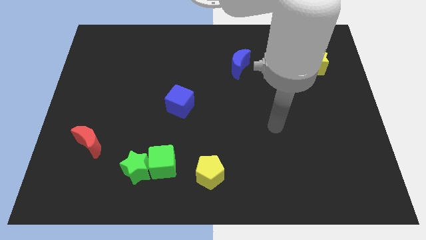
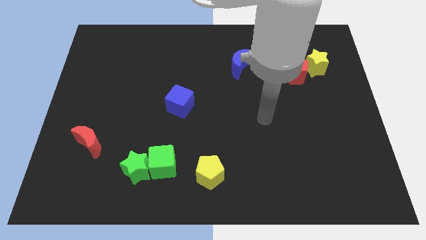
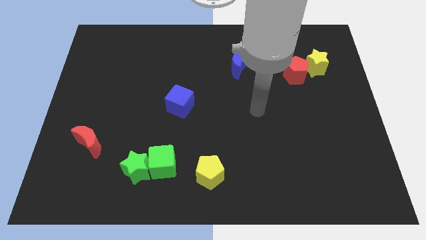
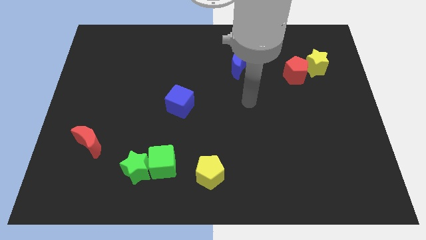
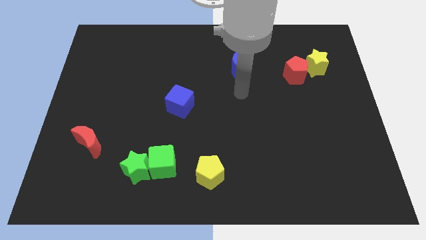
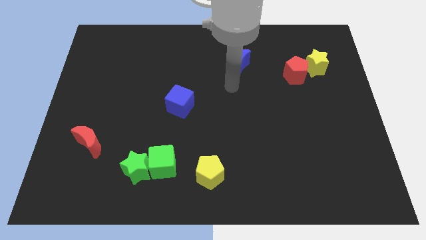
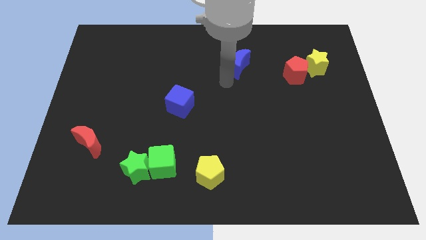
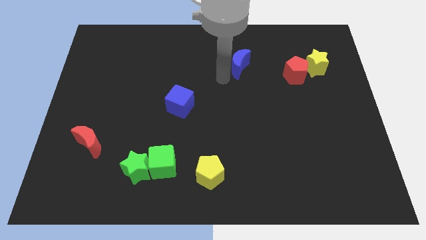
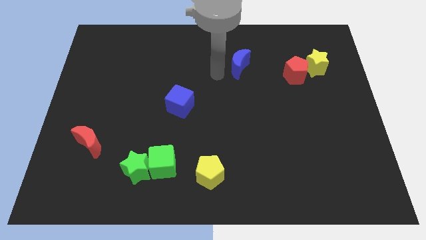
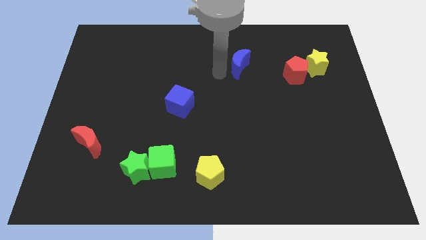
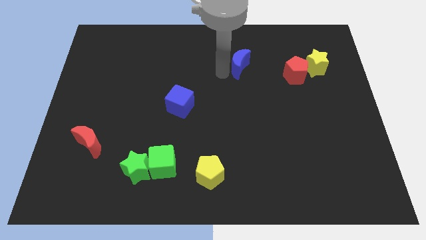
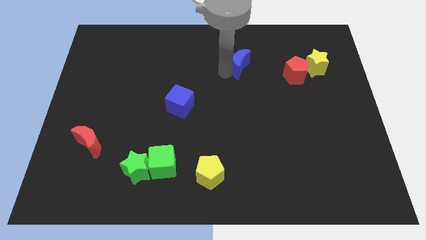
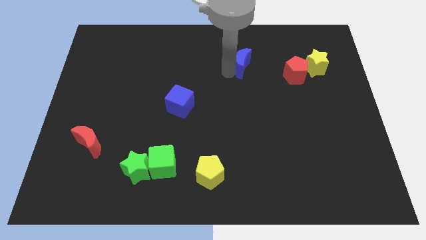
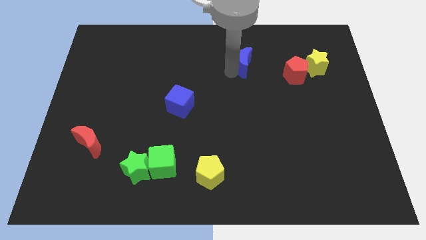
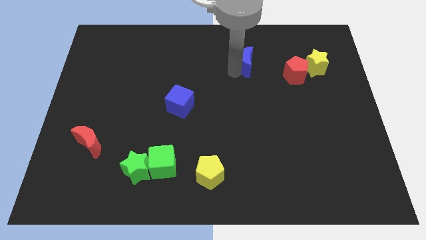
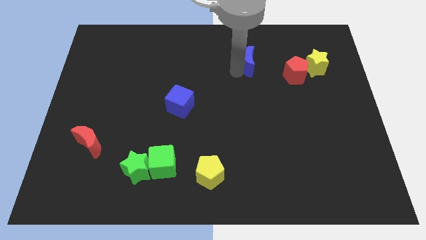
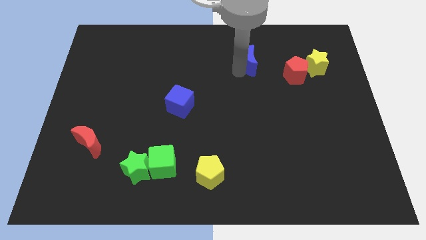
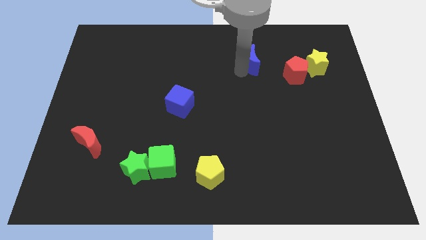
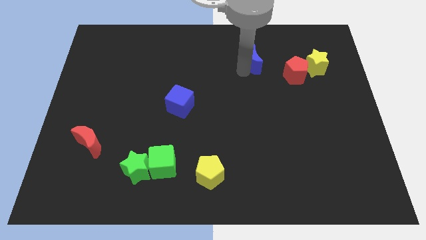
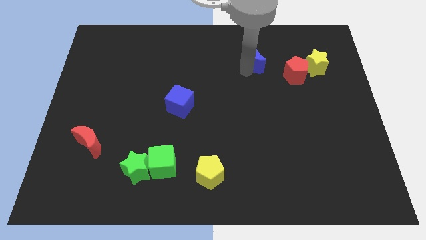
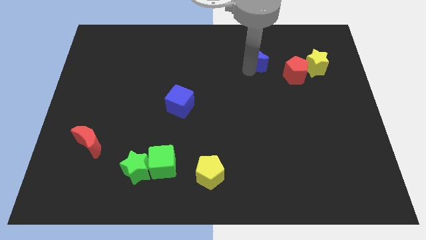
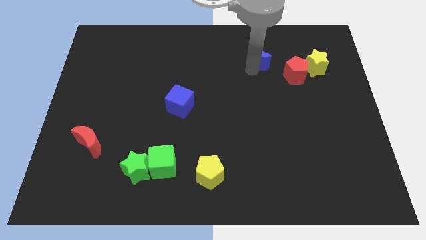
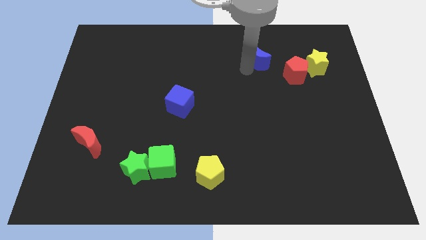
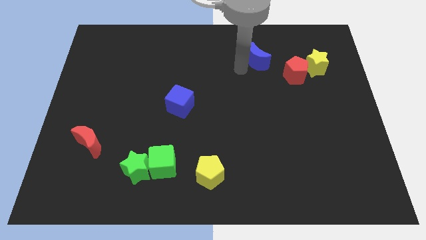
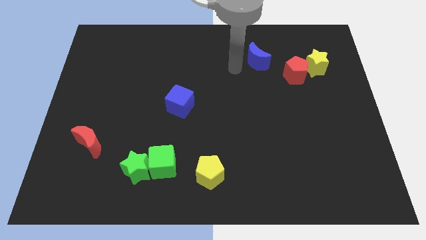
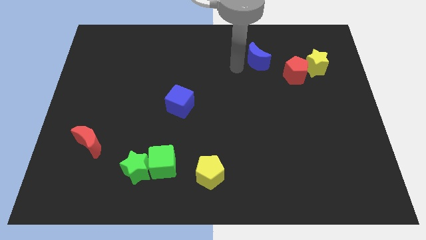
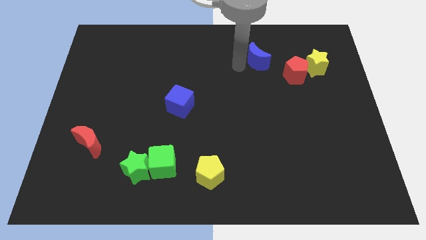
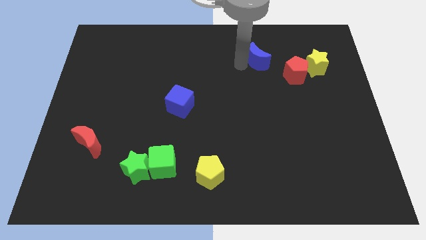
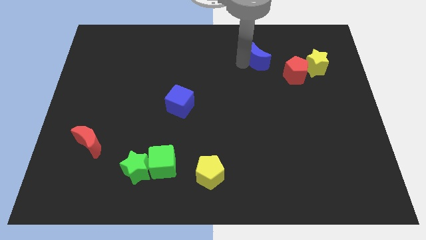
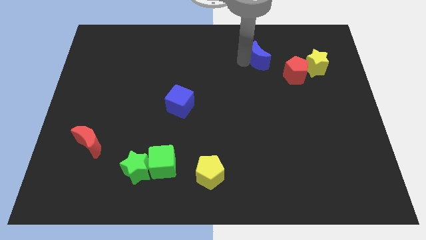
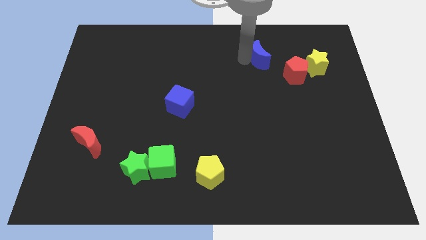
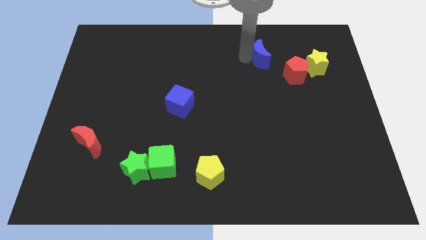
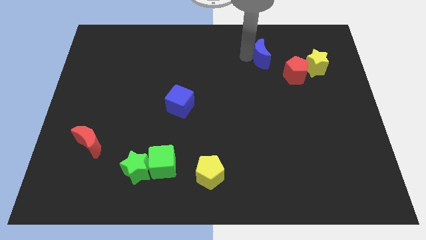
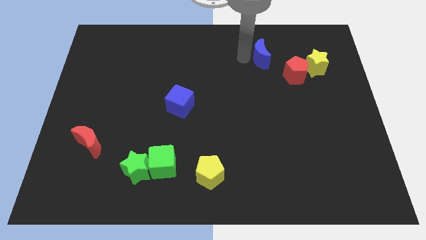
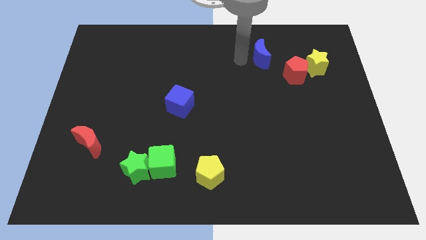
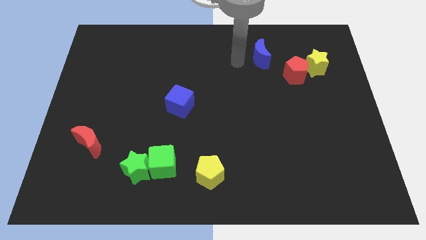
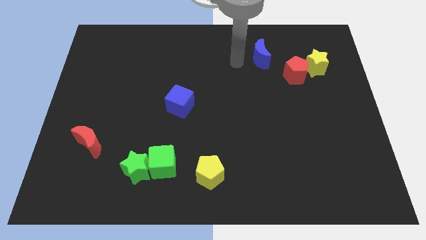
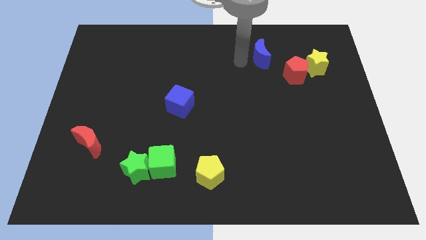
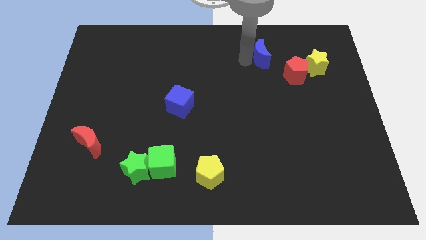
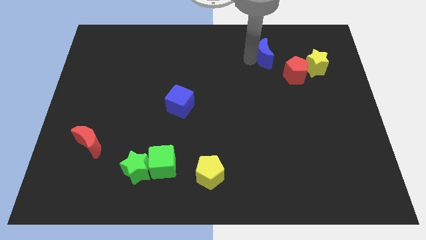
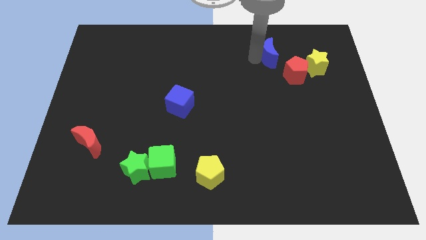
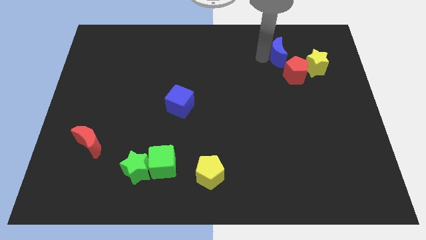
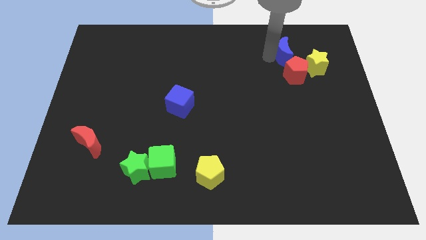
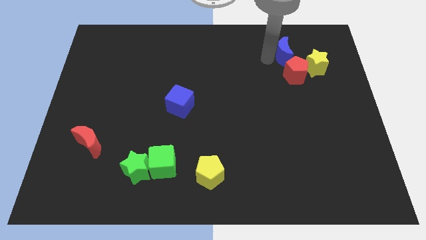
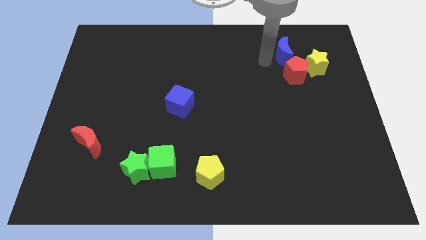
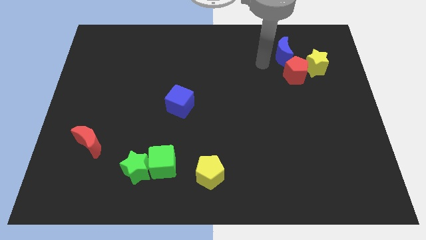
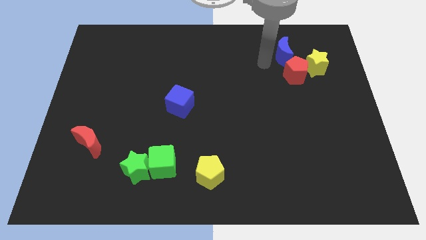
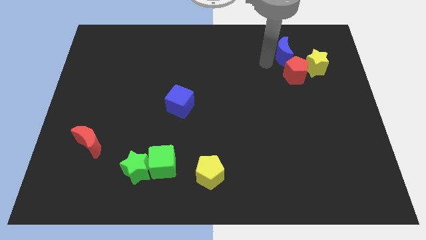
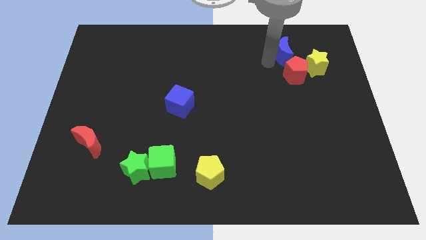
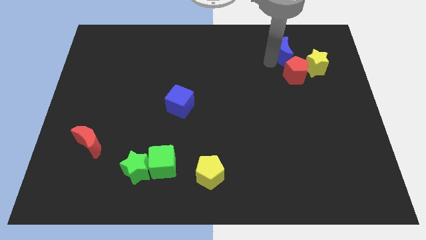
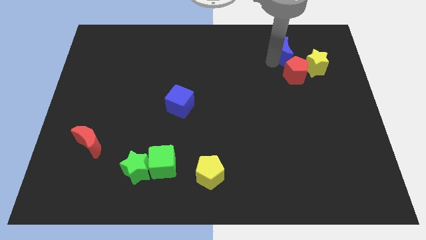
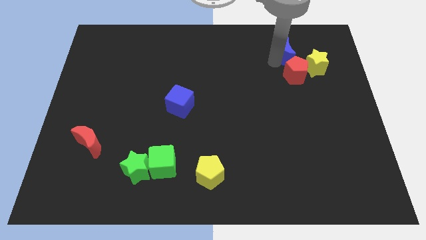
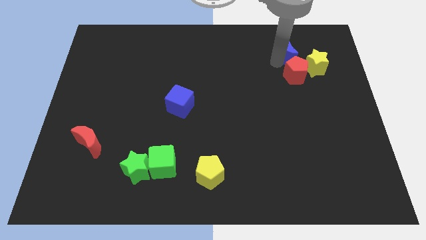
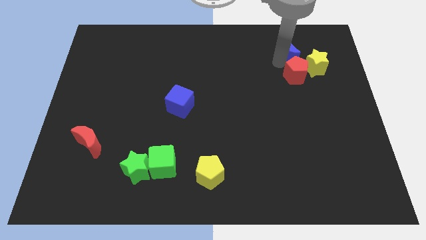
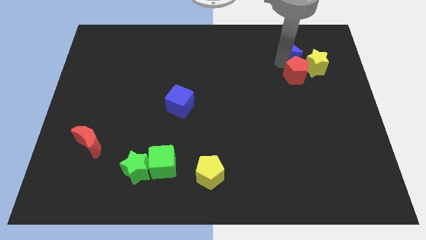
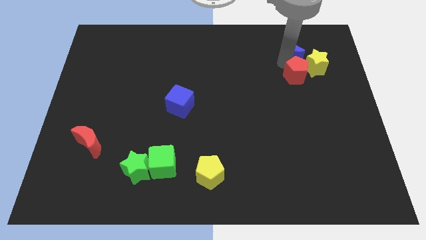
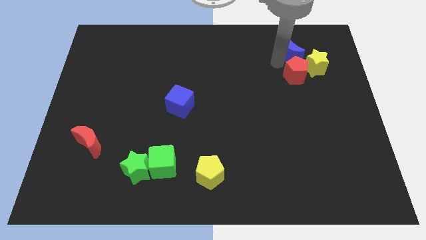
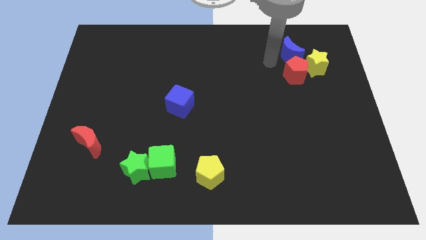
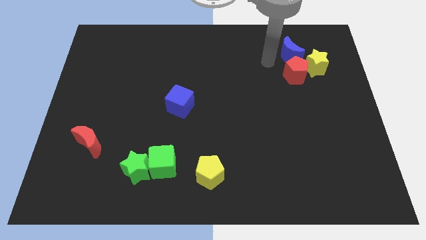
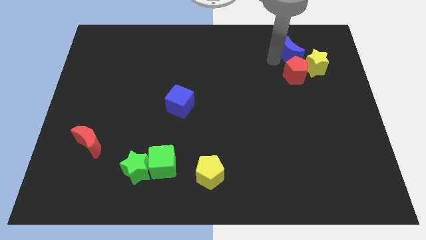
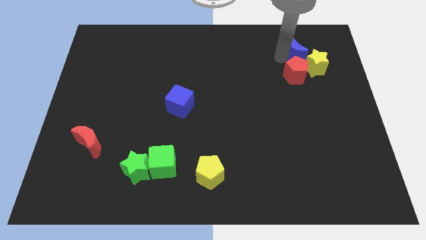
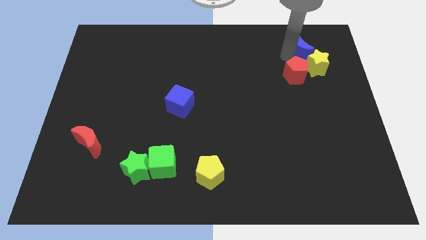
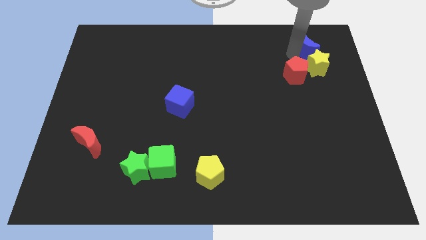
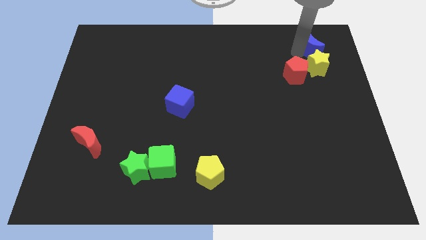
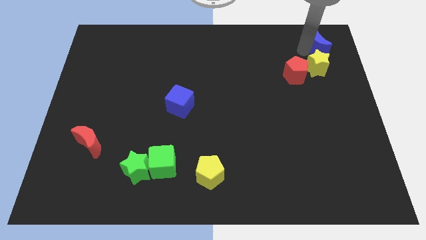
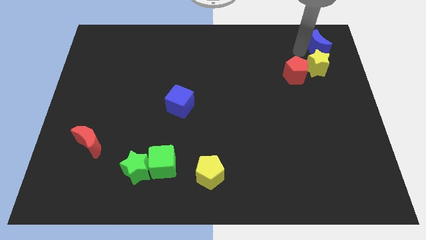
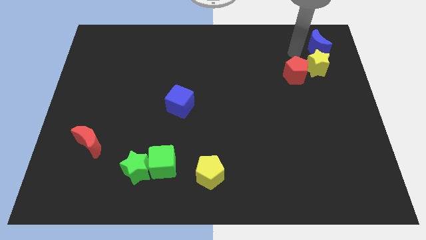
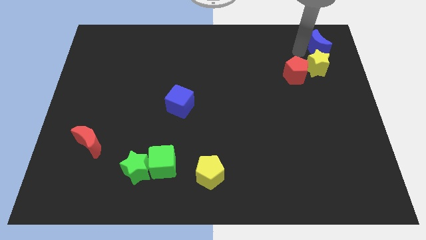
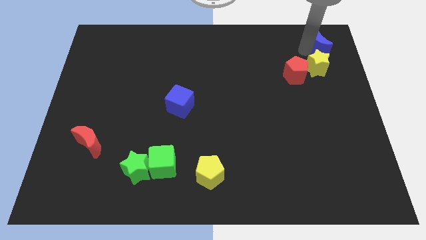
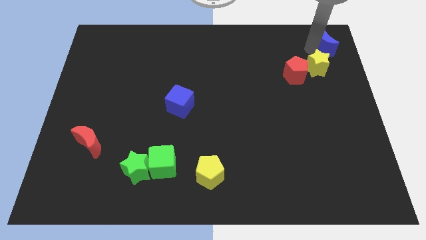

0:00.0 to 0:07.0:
push the blue moon to the upper right corner
